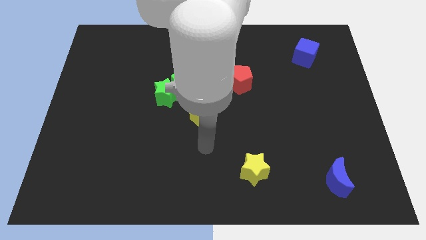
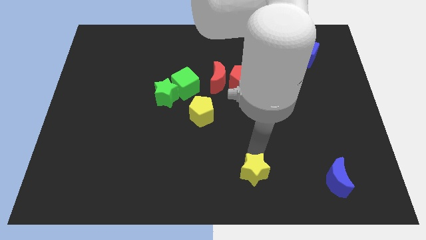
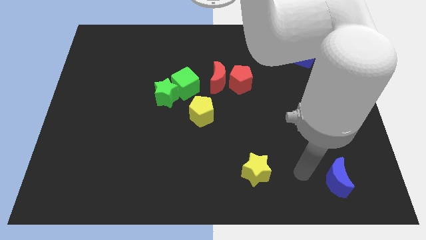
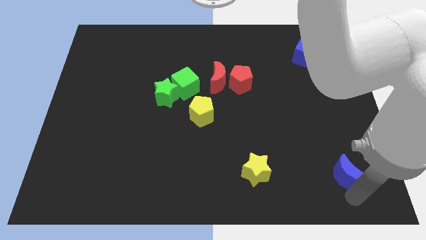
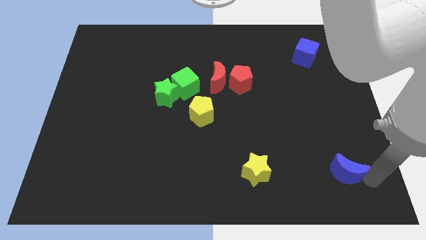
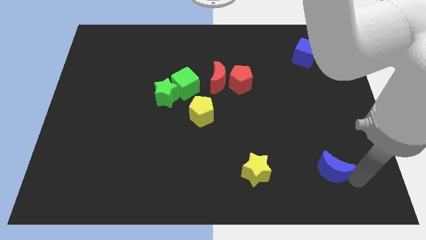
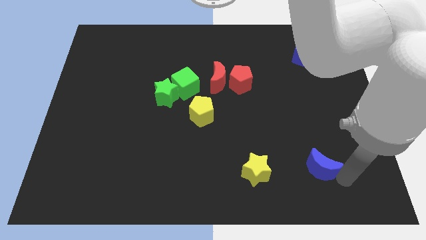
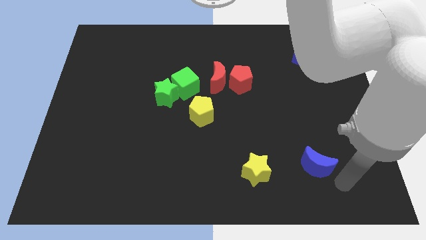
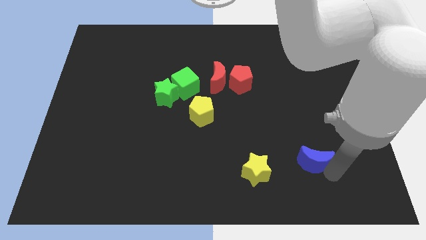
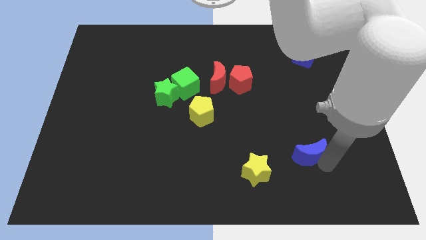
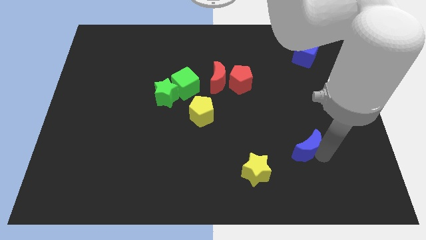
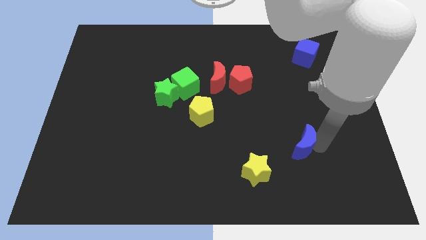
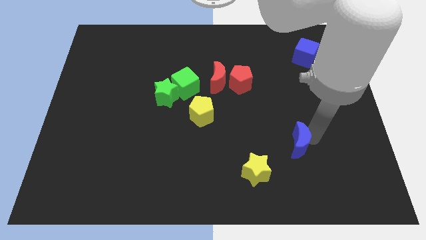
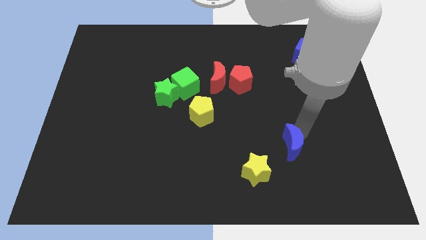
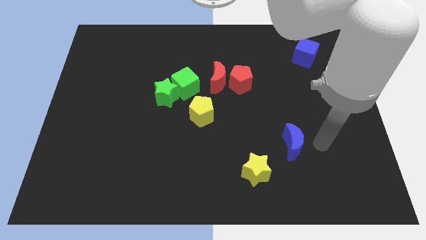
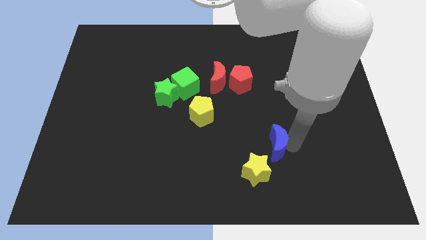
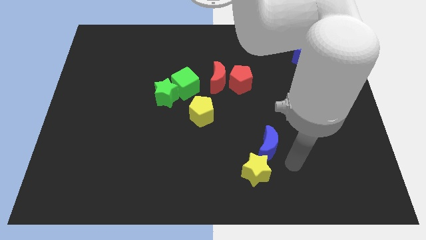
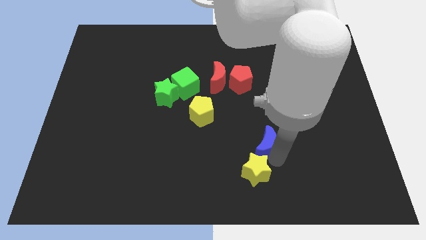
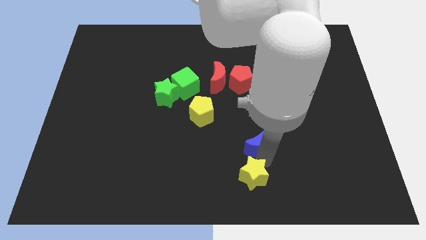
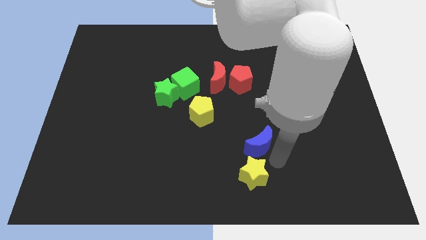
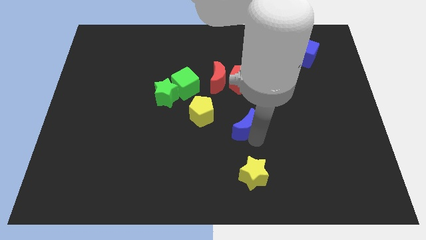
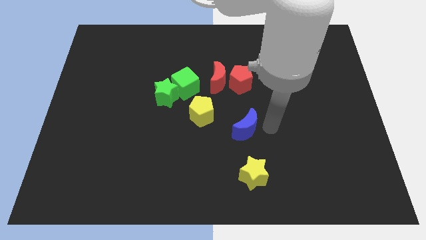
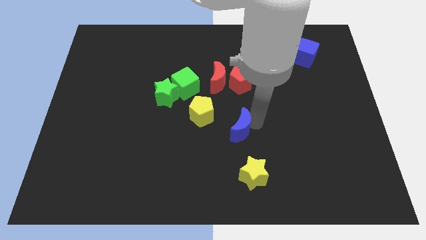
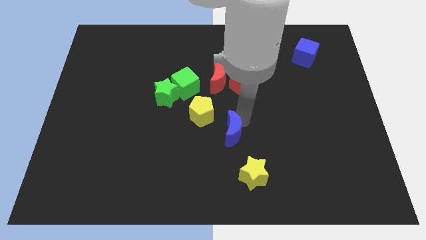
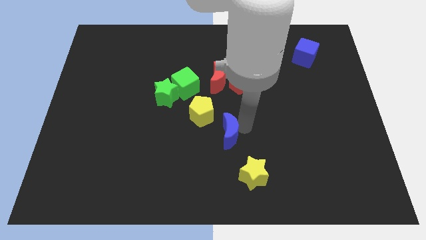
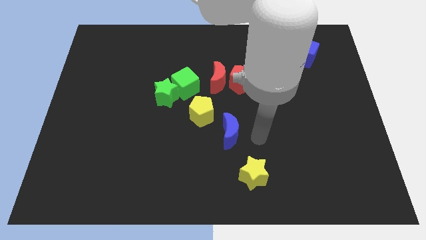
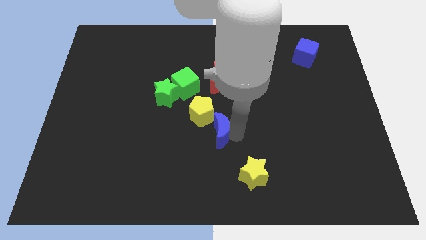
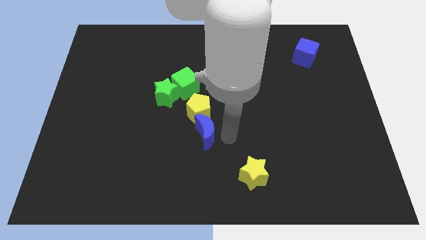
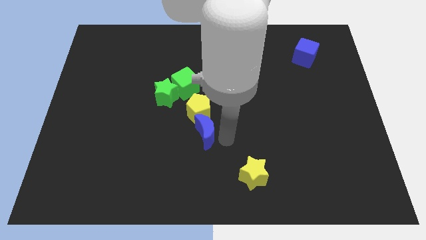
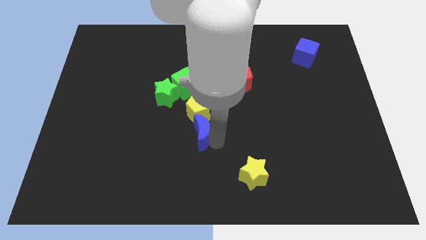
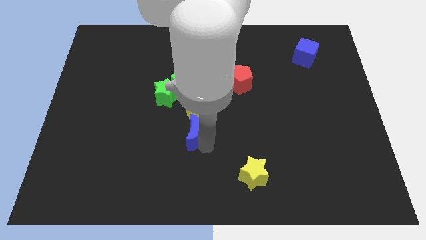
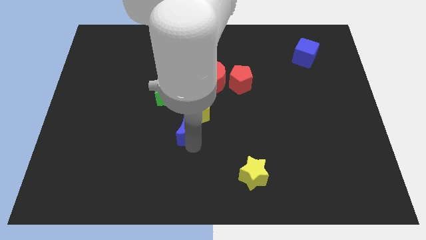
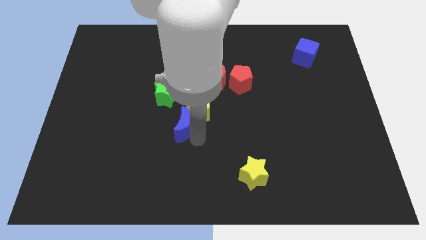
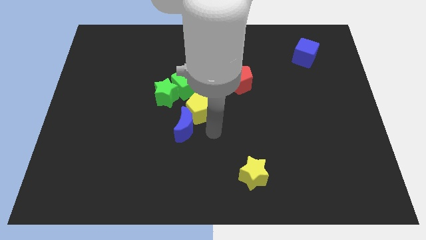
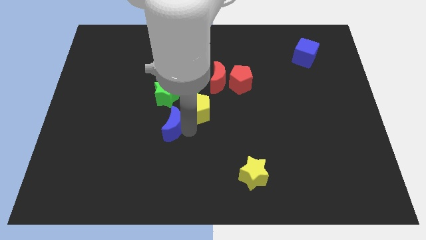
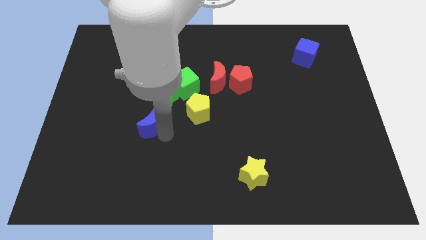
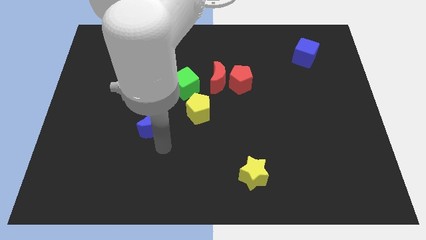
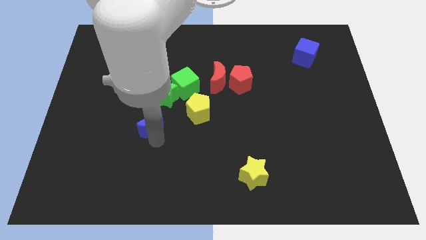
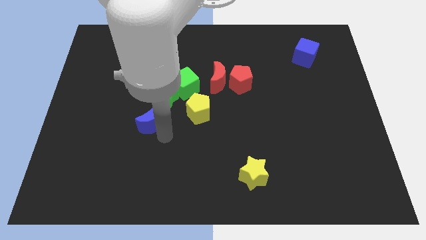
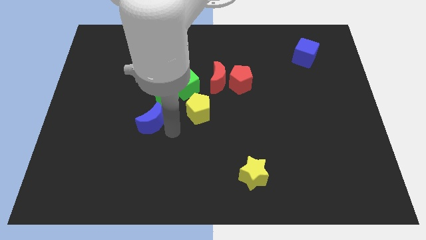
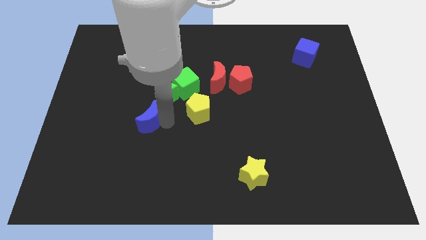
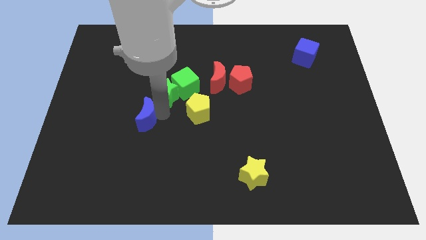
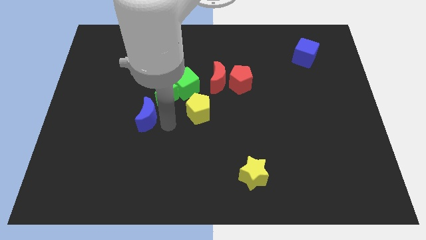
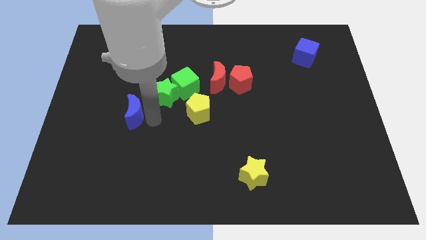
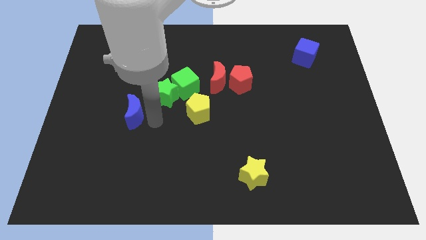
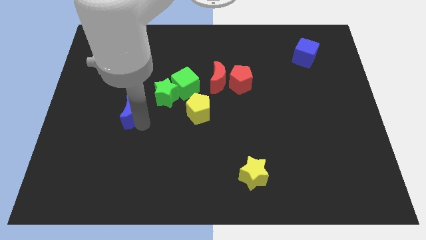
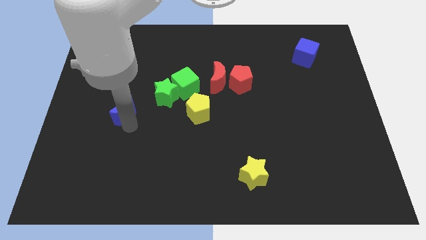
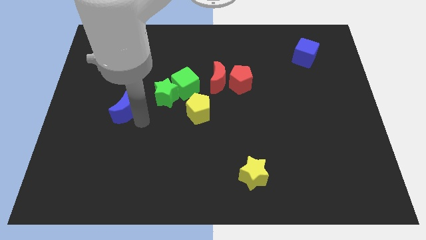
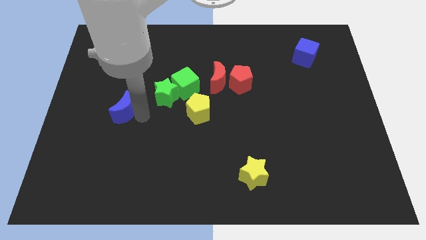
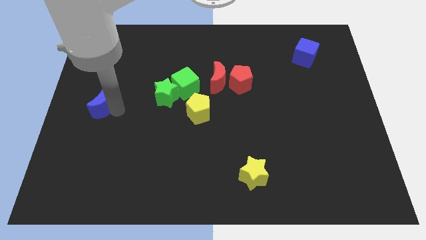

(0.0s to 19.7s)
put the blue moon to the center left

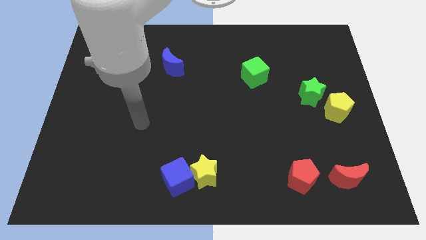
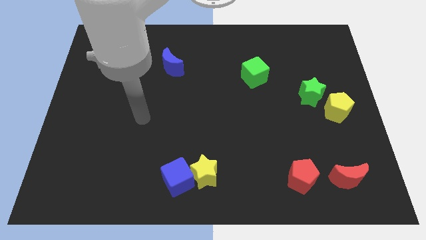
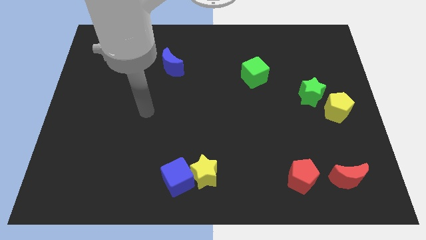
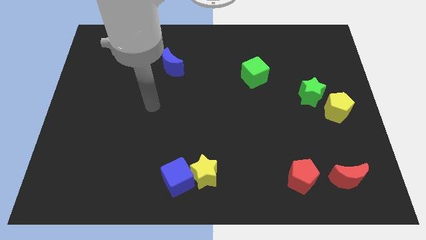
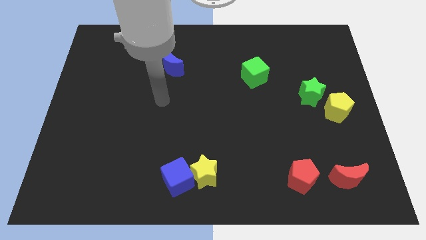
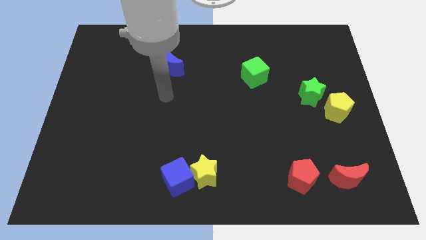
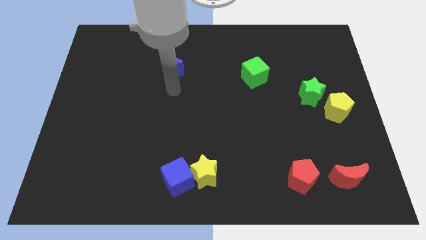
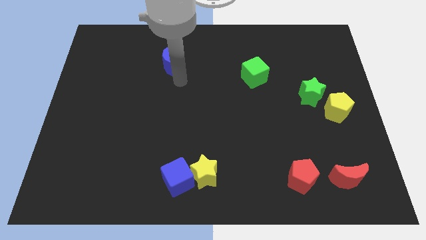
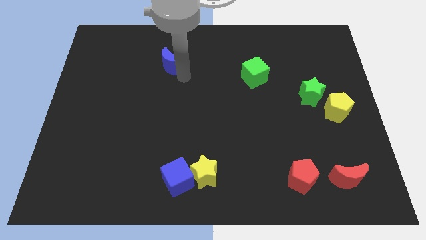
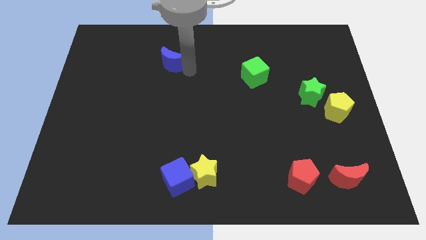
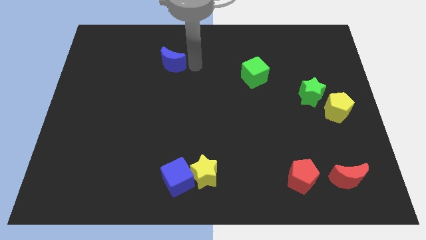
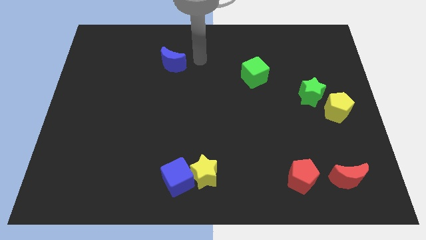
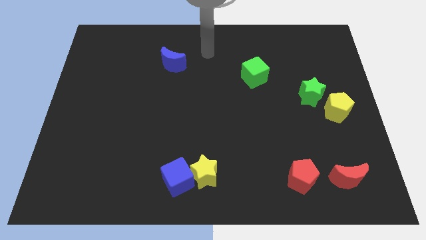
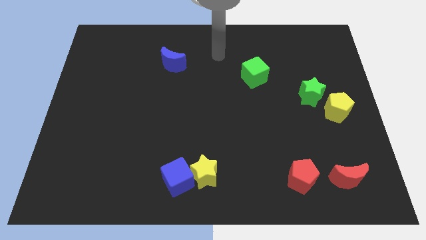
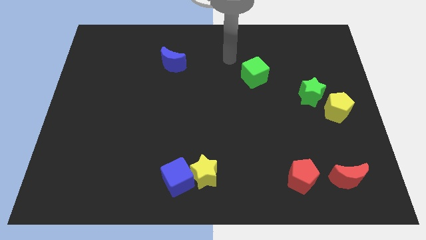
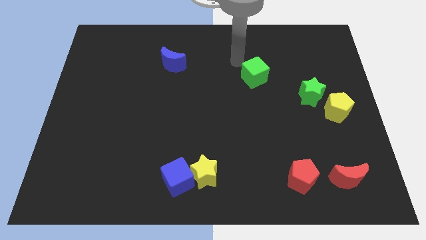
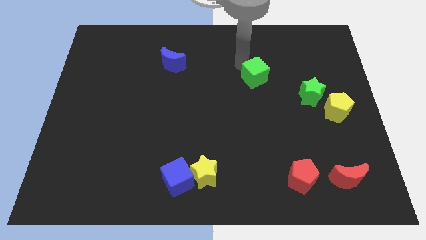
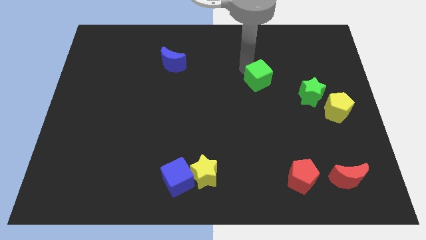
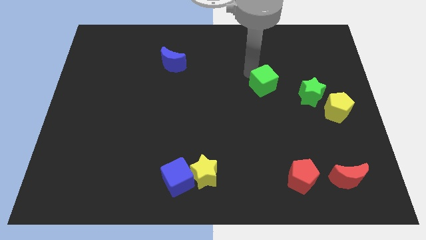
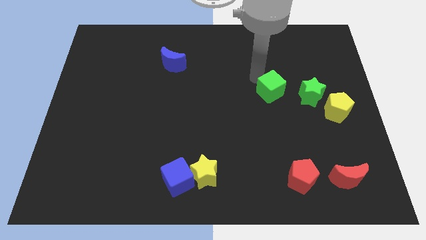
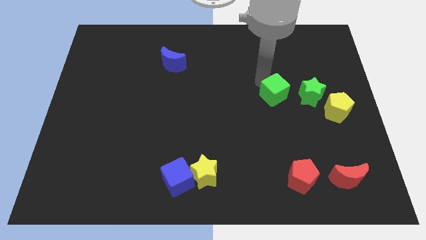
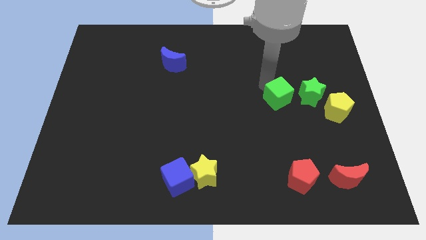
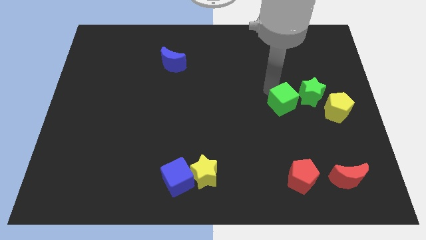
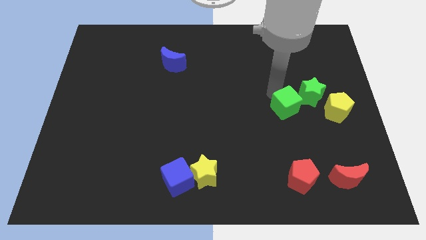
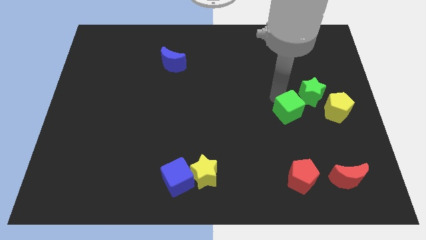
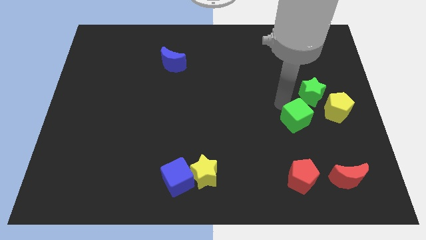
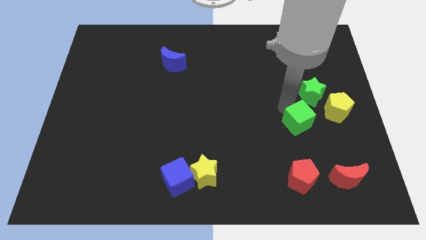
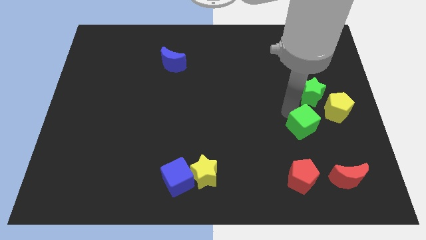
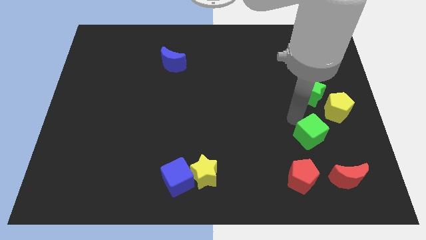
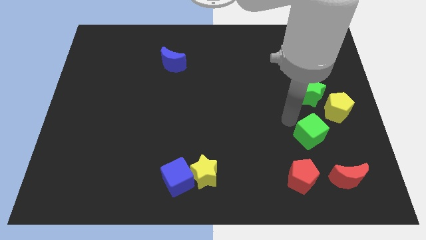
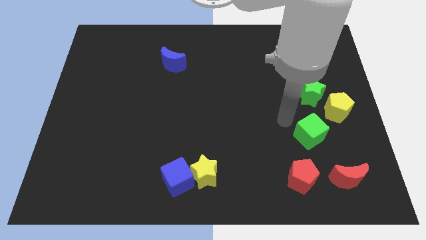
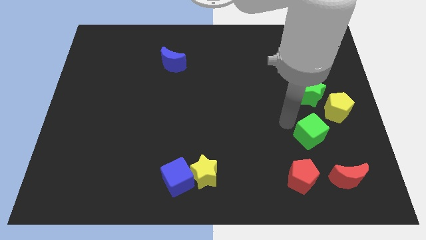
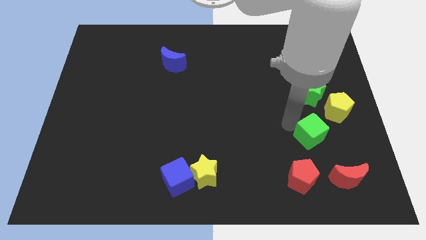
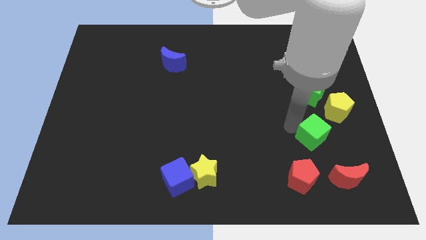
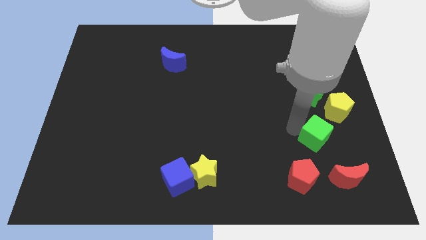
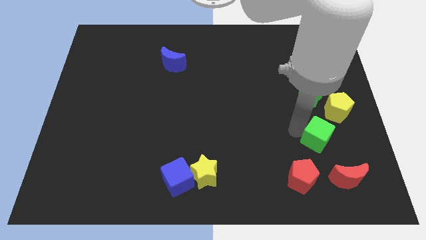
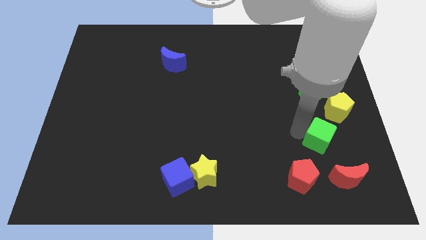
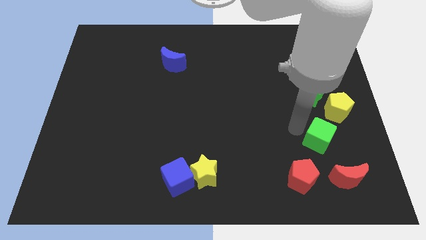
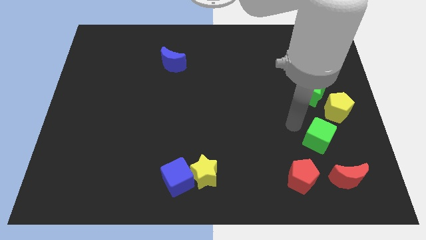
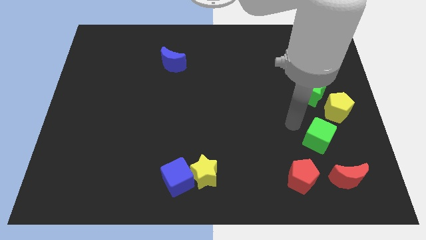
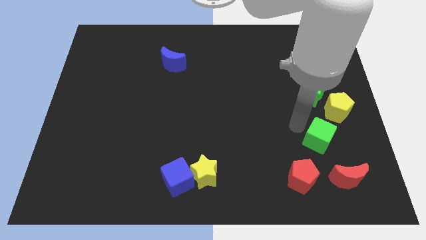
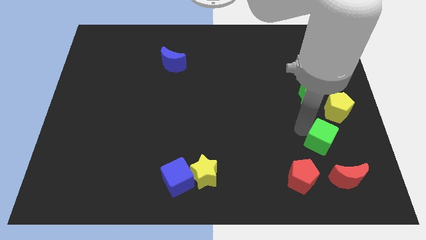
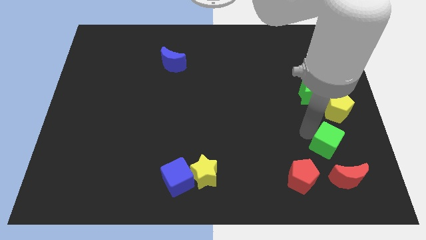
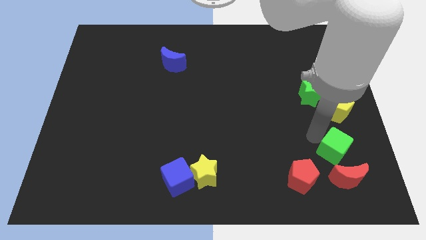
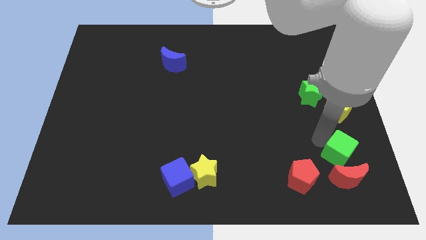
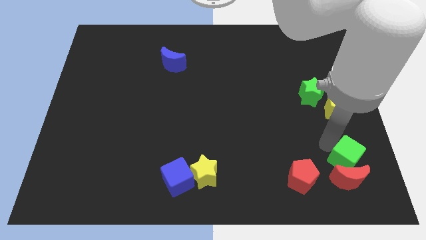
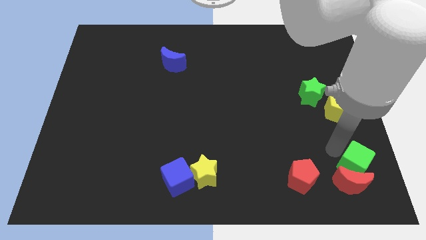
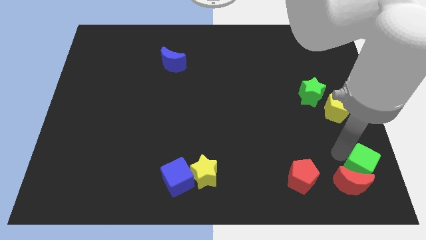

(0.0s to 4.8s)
move the green cube to the lower right corner
